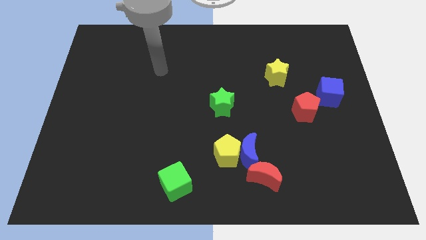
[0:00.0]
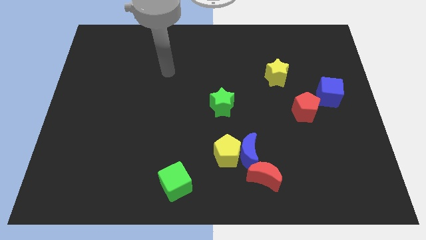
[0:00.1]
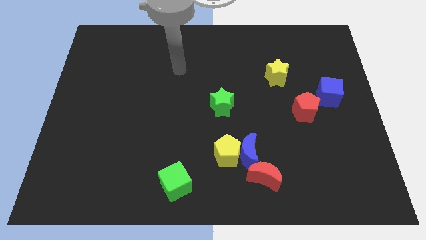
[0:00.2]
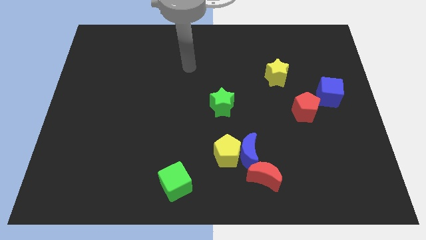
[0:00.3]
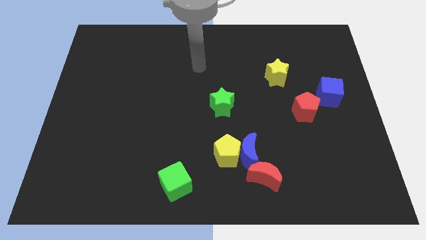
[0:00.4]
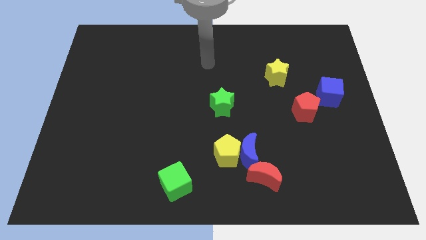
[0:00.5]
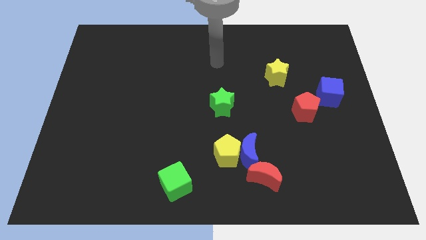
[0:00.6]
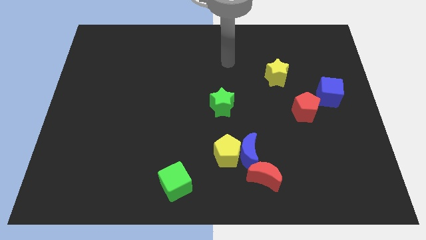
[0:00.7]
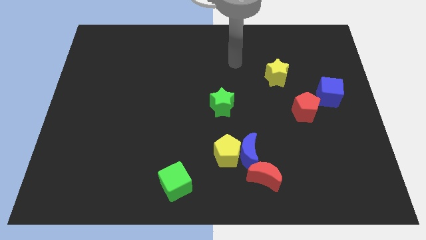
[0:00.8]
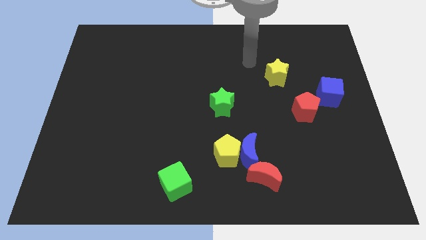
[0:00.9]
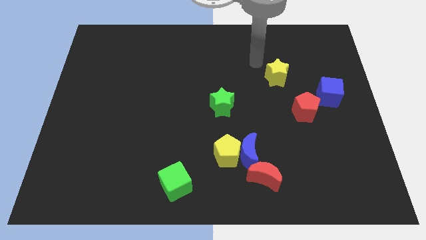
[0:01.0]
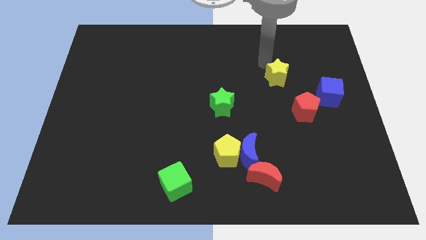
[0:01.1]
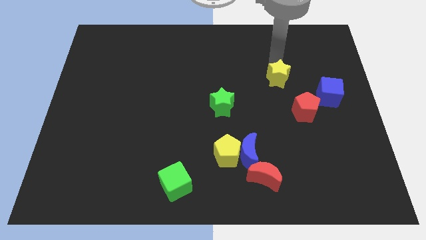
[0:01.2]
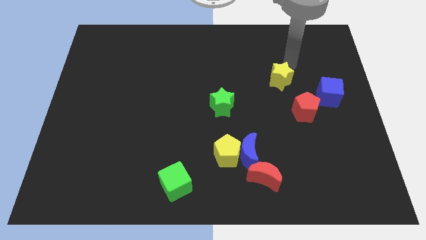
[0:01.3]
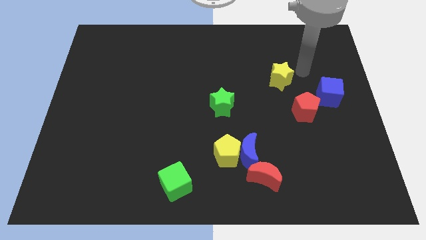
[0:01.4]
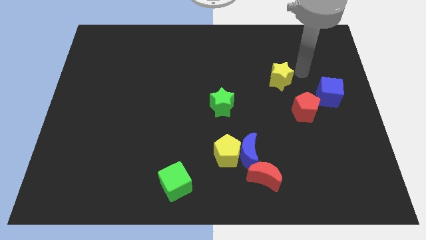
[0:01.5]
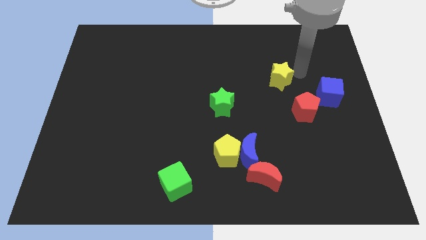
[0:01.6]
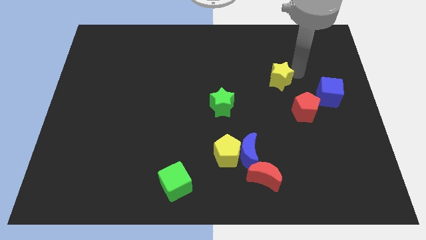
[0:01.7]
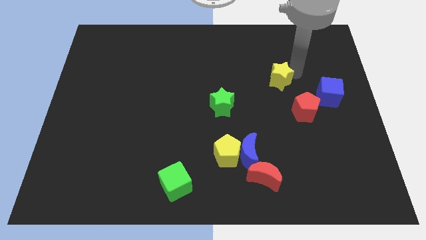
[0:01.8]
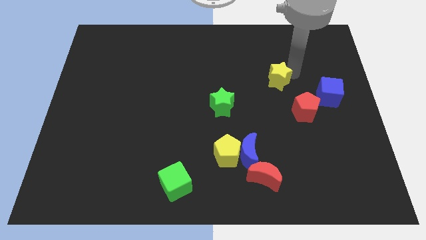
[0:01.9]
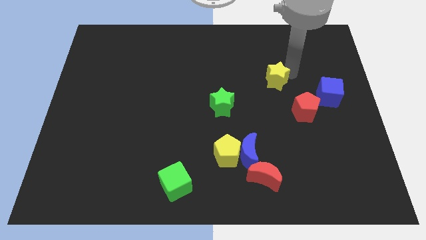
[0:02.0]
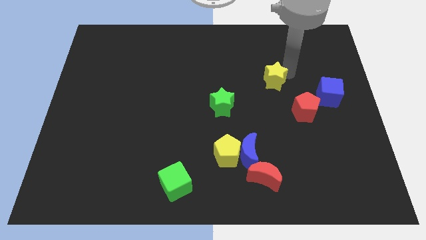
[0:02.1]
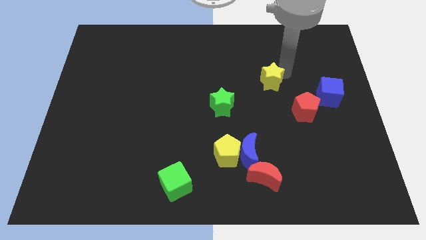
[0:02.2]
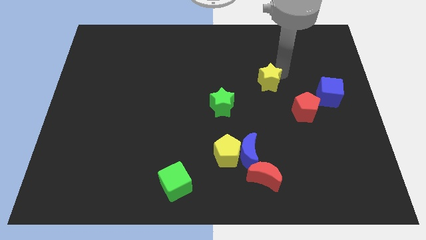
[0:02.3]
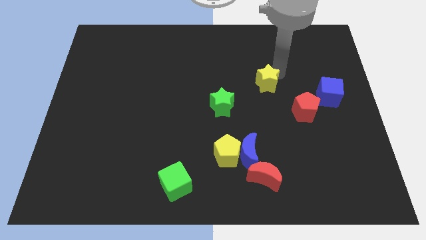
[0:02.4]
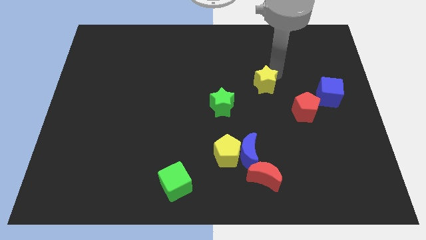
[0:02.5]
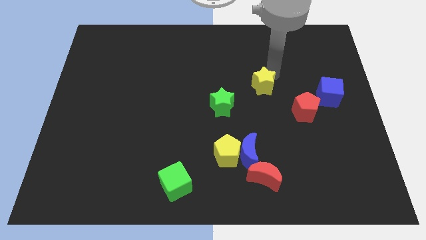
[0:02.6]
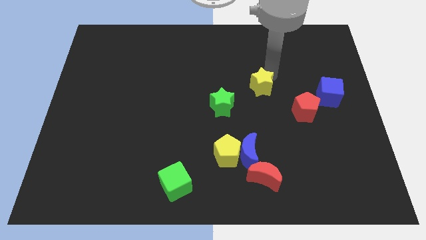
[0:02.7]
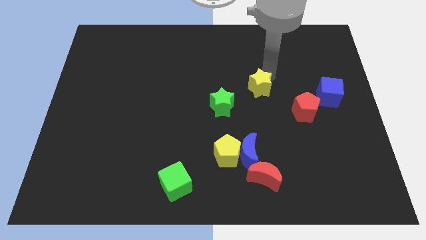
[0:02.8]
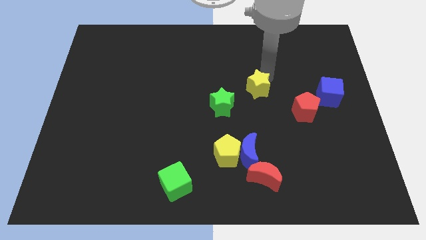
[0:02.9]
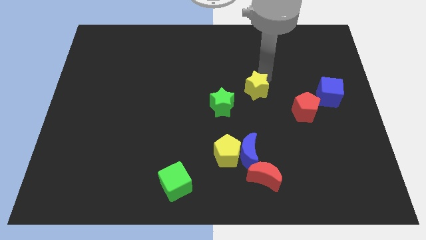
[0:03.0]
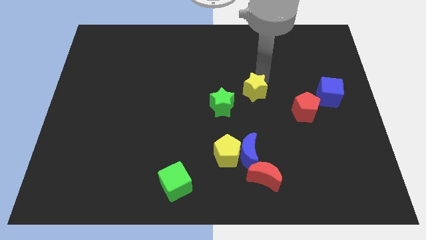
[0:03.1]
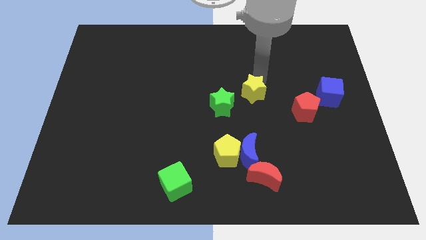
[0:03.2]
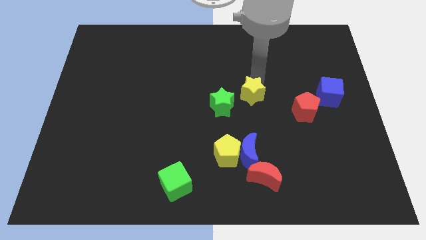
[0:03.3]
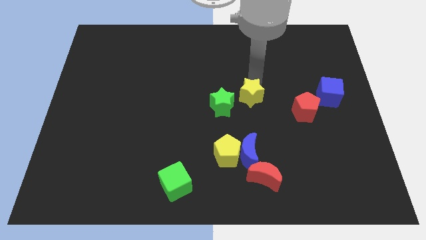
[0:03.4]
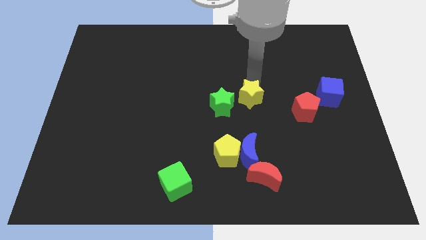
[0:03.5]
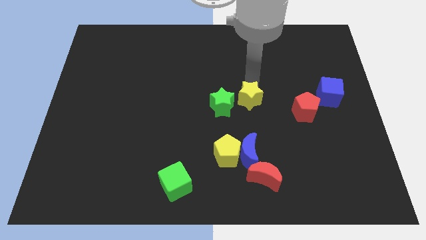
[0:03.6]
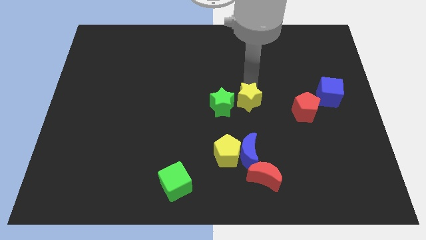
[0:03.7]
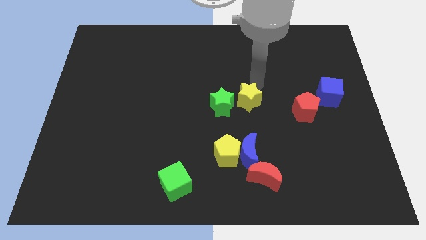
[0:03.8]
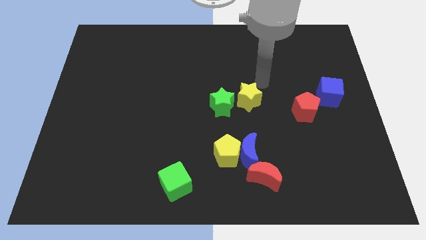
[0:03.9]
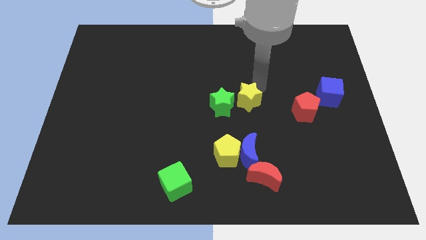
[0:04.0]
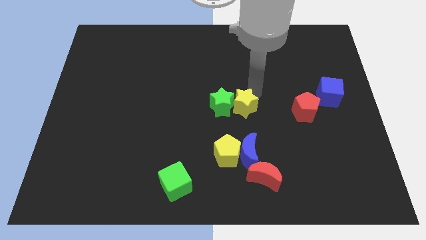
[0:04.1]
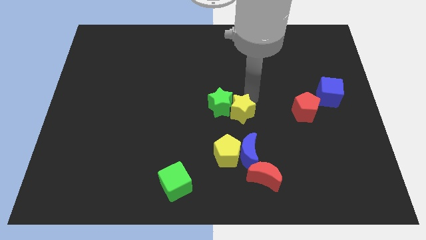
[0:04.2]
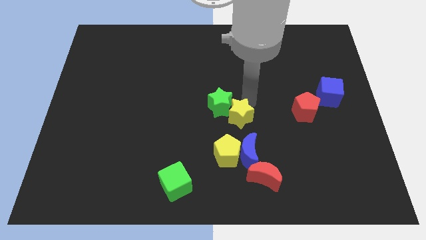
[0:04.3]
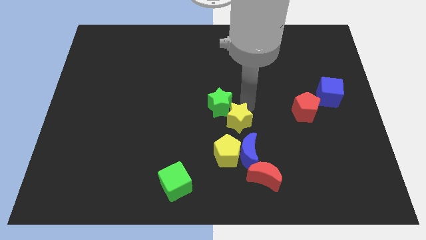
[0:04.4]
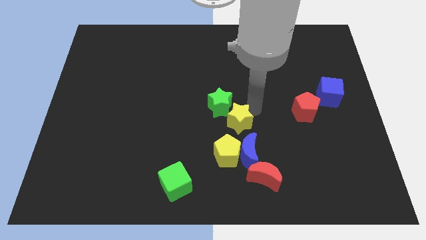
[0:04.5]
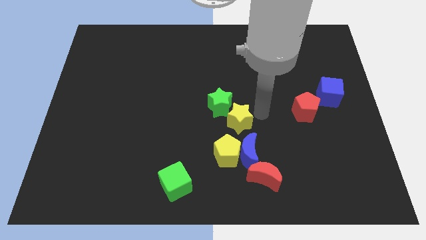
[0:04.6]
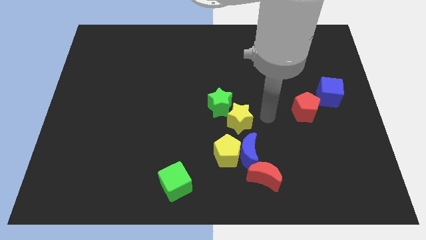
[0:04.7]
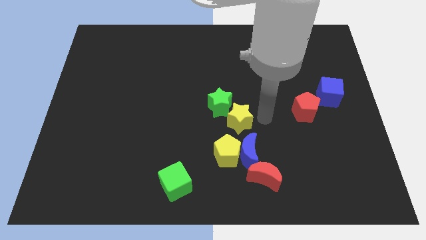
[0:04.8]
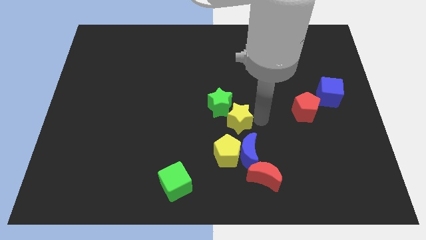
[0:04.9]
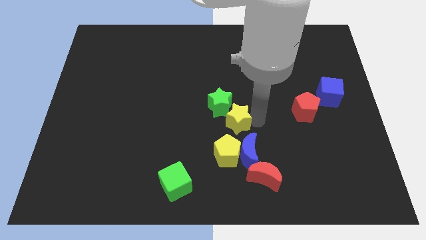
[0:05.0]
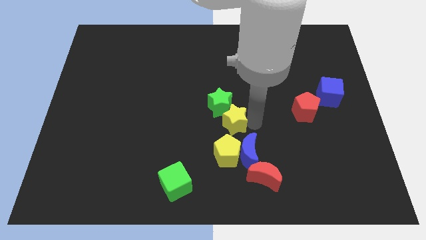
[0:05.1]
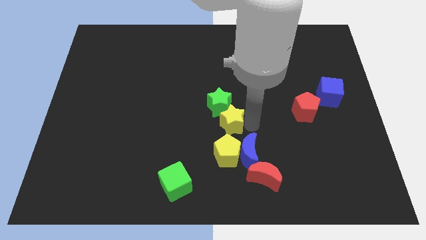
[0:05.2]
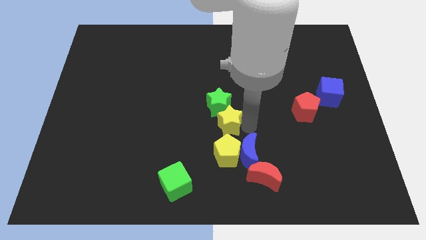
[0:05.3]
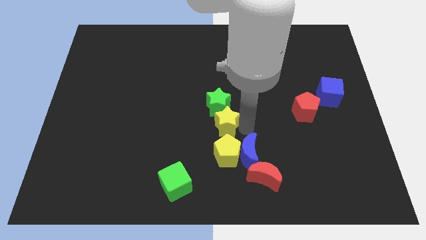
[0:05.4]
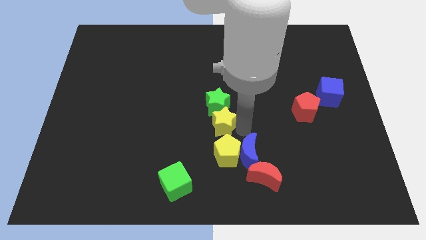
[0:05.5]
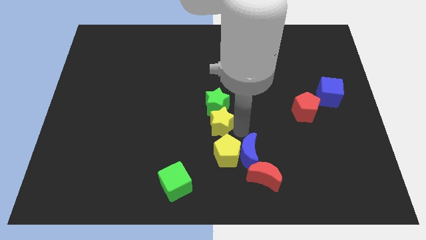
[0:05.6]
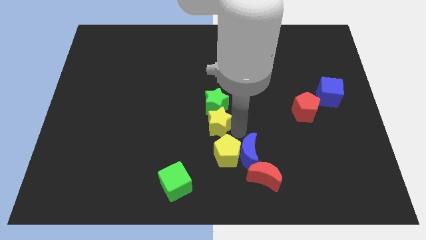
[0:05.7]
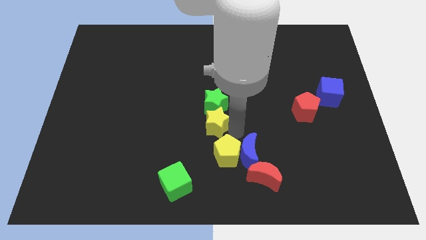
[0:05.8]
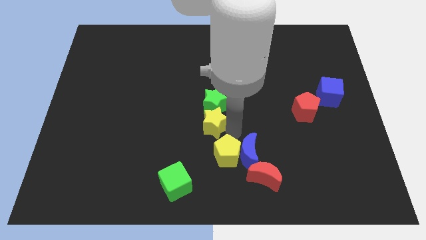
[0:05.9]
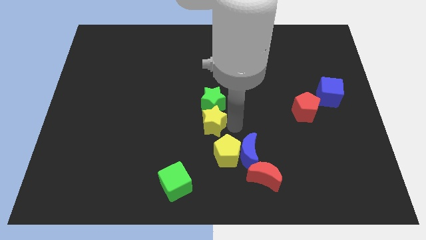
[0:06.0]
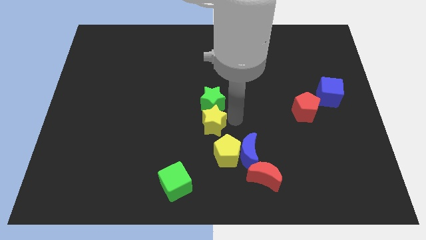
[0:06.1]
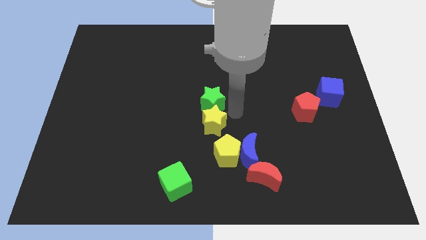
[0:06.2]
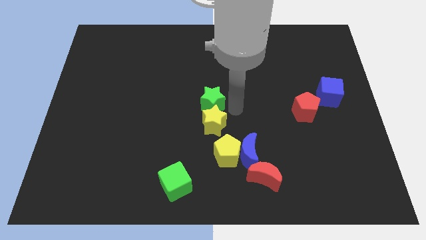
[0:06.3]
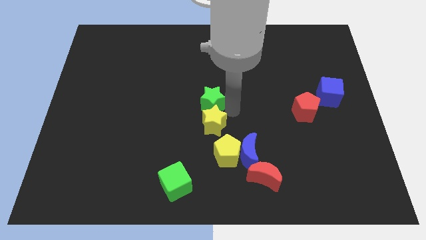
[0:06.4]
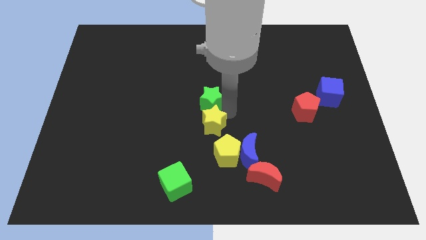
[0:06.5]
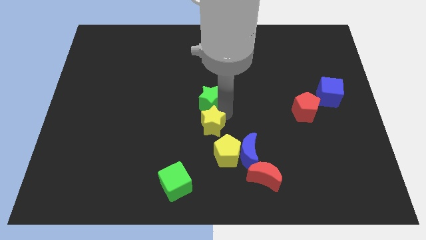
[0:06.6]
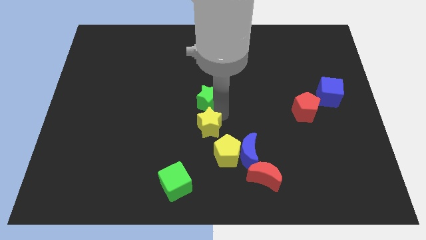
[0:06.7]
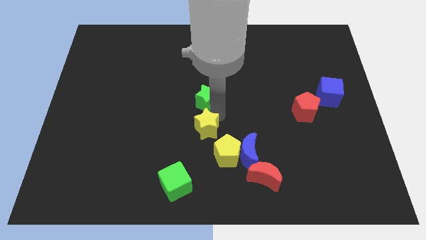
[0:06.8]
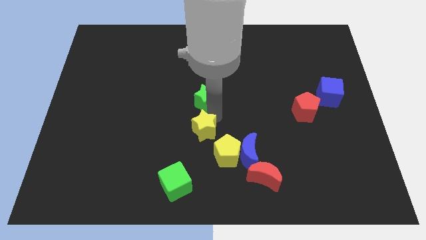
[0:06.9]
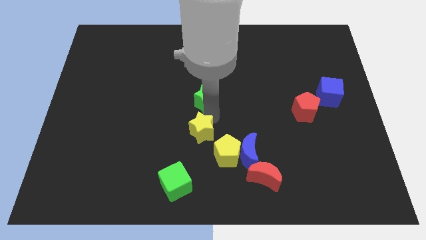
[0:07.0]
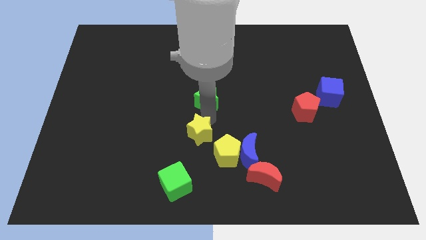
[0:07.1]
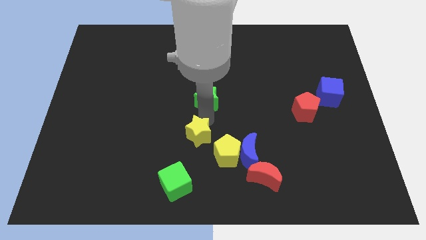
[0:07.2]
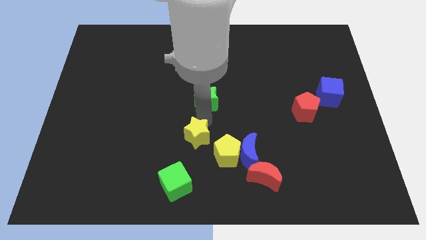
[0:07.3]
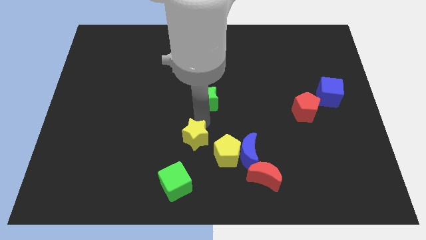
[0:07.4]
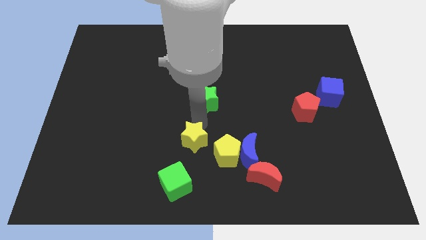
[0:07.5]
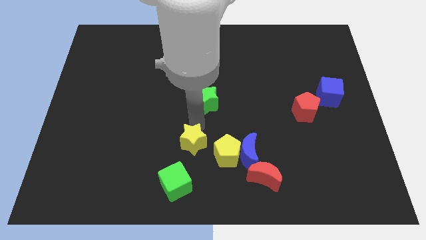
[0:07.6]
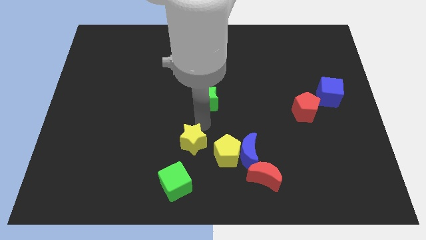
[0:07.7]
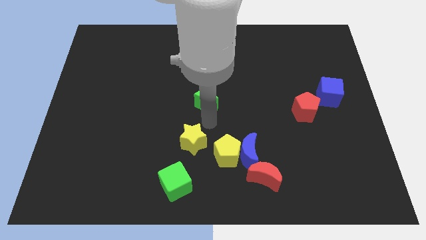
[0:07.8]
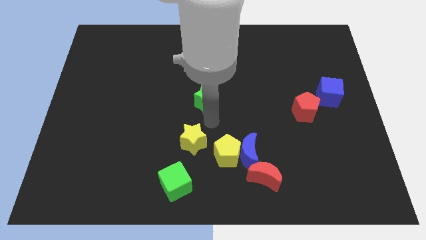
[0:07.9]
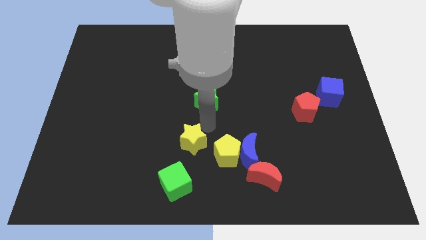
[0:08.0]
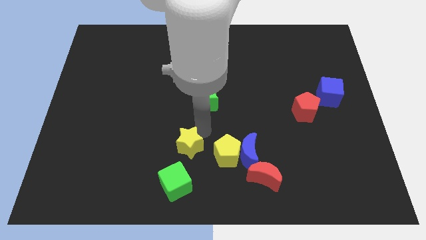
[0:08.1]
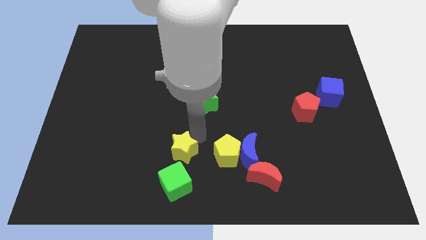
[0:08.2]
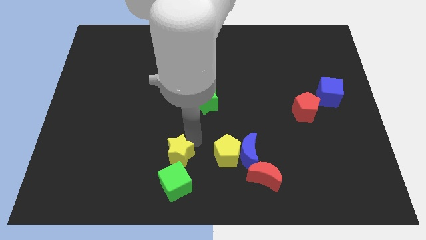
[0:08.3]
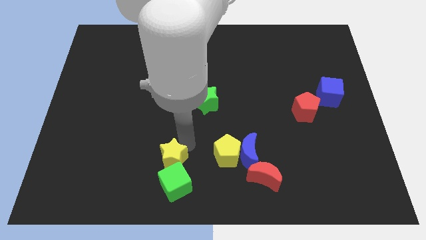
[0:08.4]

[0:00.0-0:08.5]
put the yellow star close to the green cube
